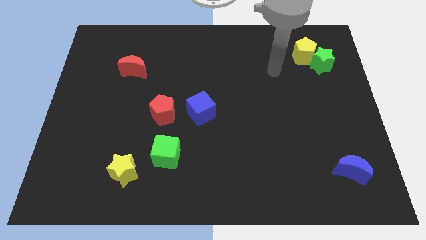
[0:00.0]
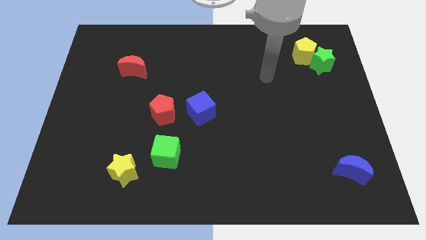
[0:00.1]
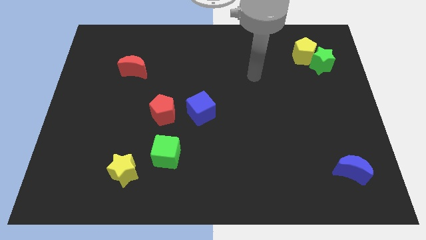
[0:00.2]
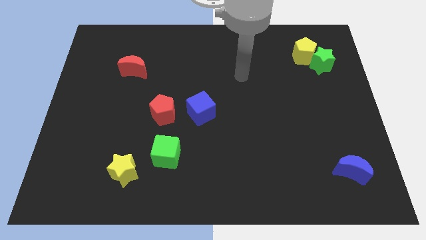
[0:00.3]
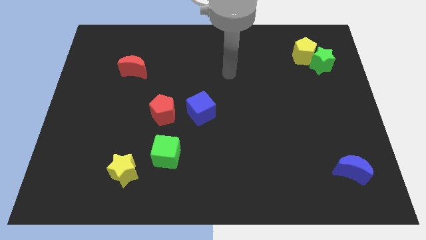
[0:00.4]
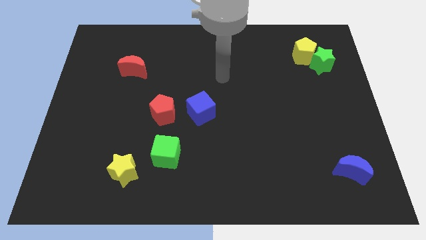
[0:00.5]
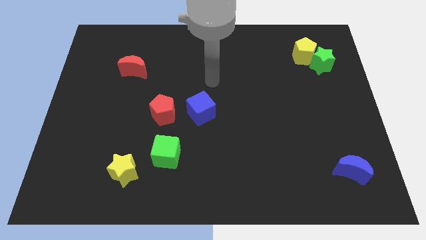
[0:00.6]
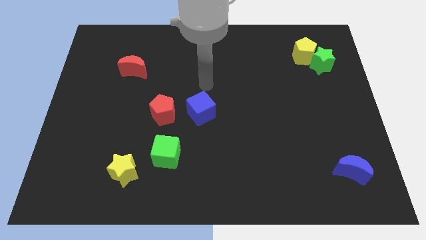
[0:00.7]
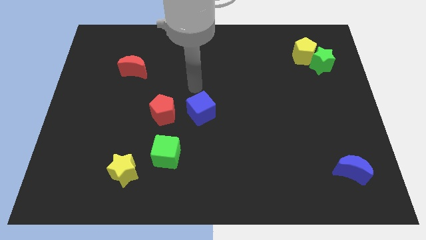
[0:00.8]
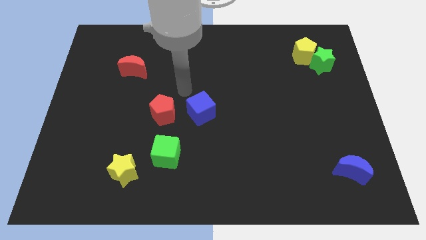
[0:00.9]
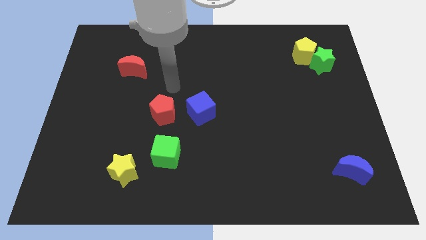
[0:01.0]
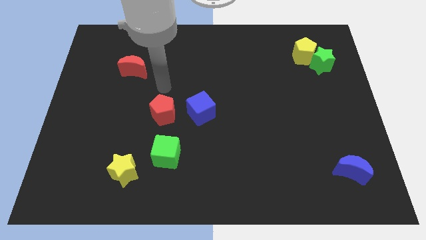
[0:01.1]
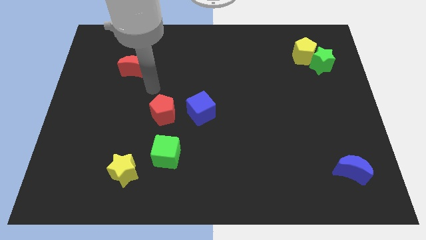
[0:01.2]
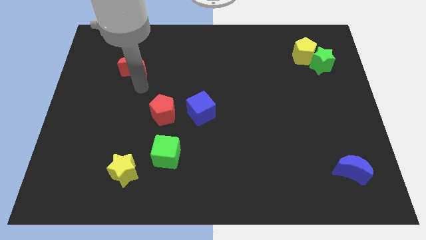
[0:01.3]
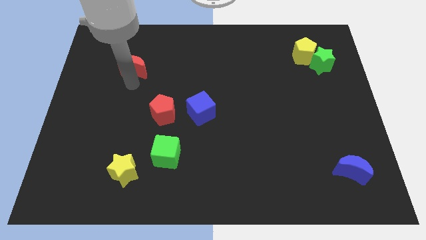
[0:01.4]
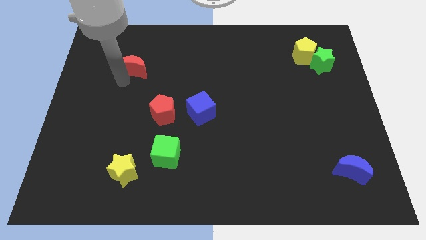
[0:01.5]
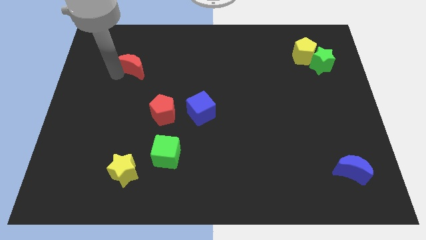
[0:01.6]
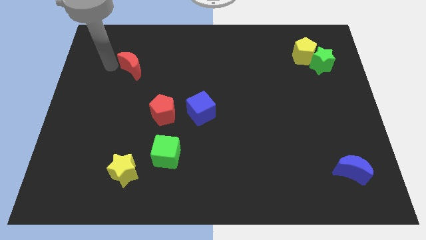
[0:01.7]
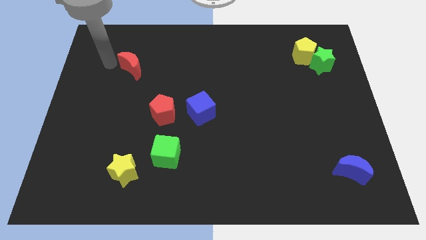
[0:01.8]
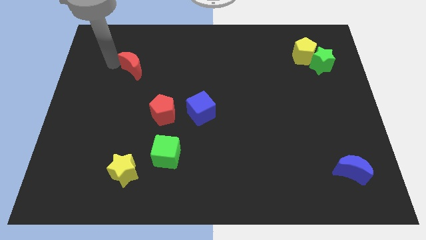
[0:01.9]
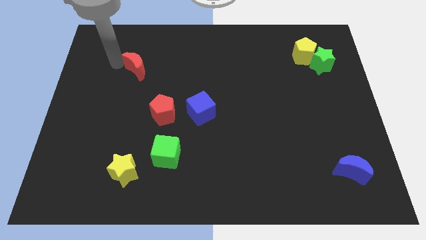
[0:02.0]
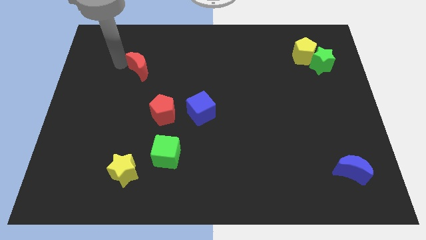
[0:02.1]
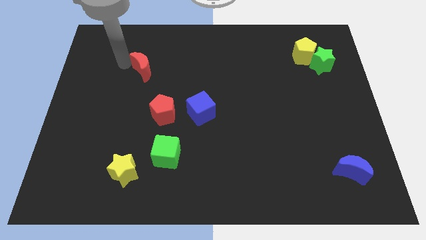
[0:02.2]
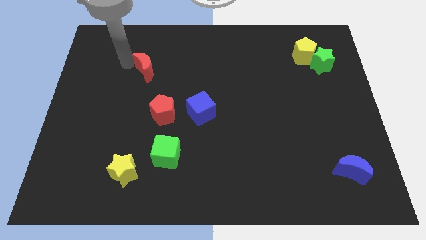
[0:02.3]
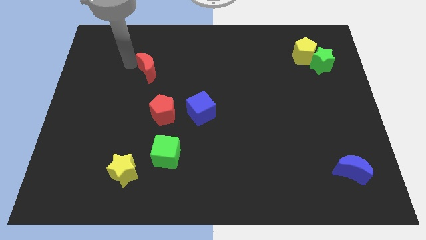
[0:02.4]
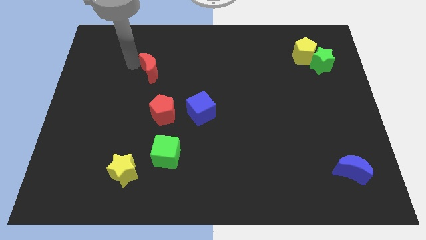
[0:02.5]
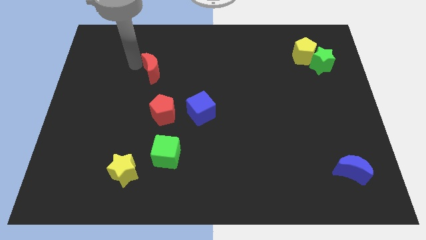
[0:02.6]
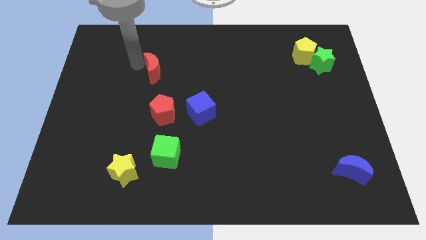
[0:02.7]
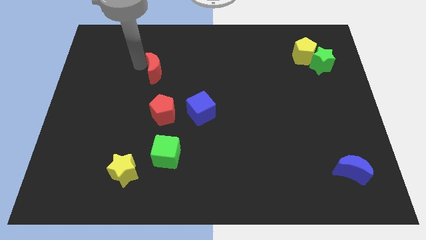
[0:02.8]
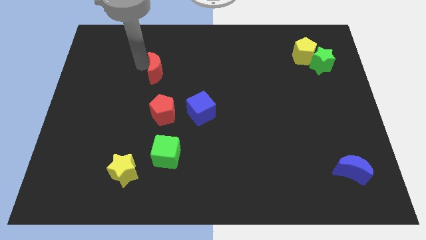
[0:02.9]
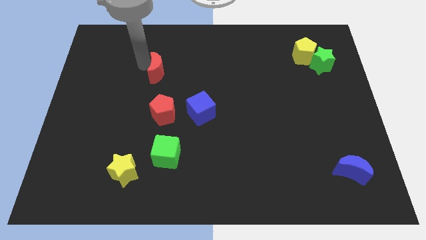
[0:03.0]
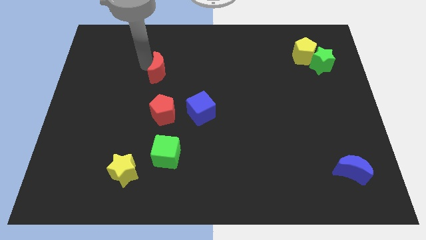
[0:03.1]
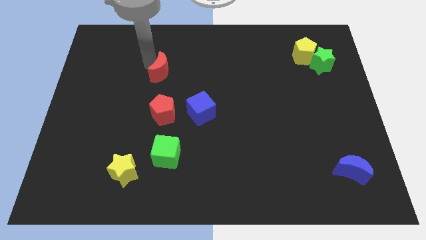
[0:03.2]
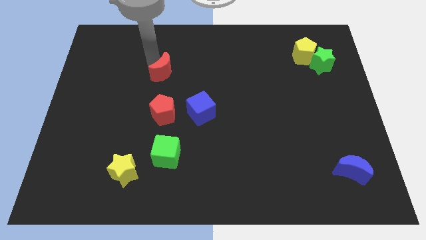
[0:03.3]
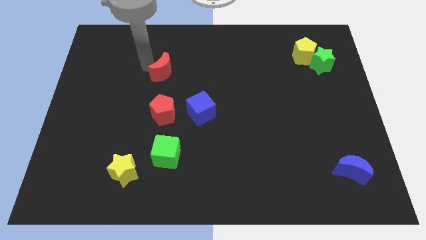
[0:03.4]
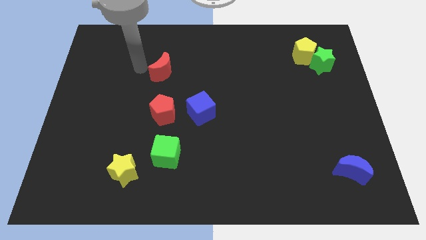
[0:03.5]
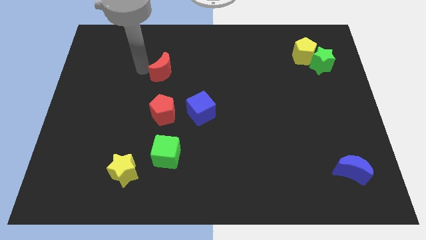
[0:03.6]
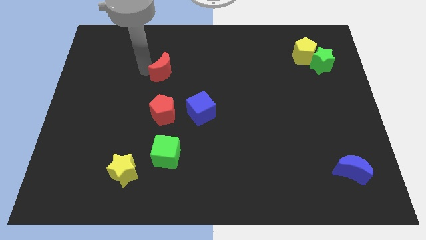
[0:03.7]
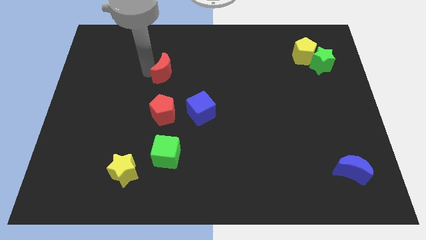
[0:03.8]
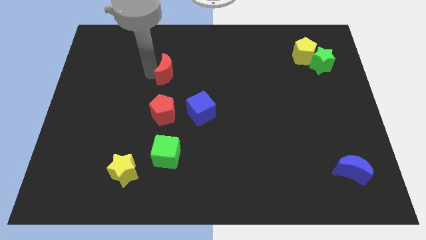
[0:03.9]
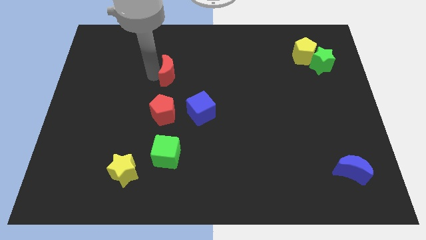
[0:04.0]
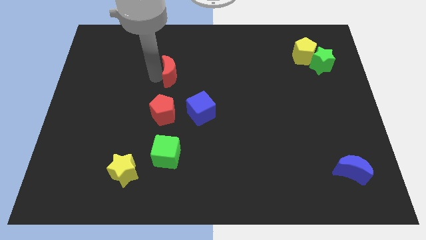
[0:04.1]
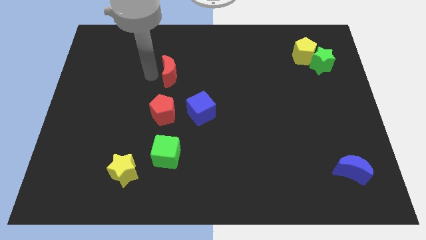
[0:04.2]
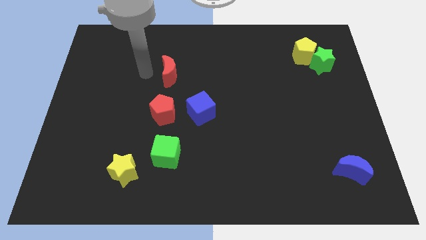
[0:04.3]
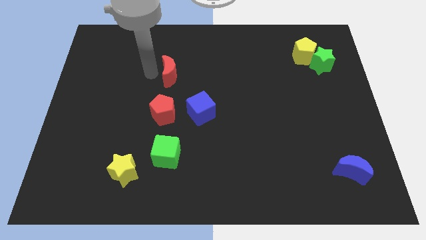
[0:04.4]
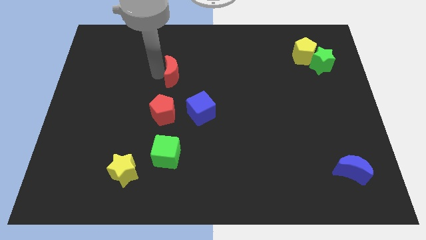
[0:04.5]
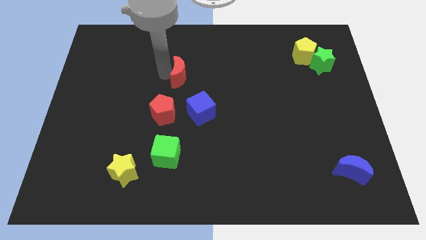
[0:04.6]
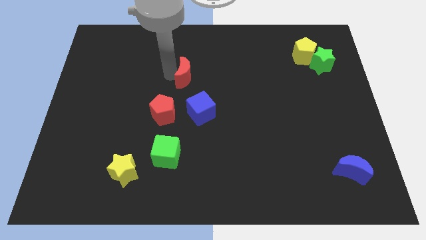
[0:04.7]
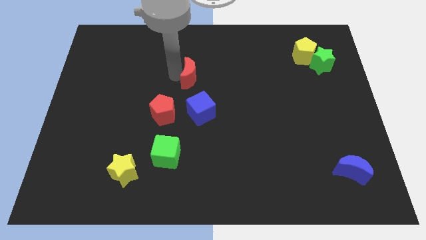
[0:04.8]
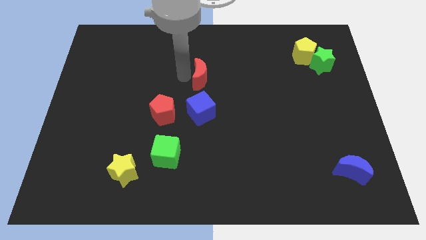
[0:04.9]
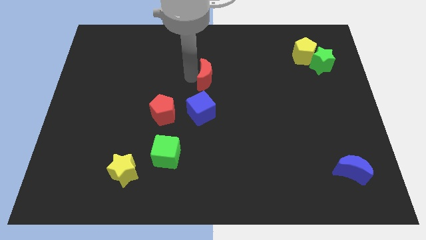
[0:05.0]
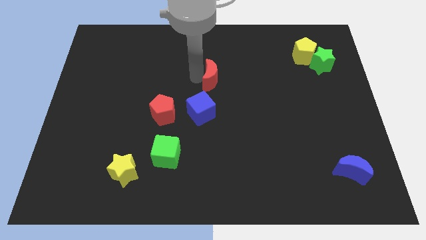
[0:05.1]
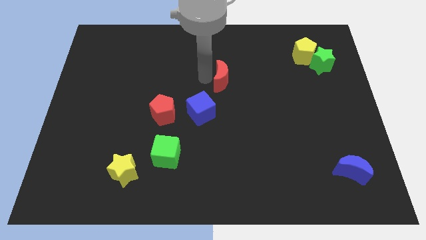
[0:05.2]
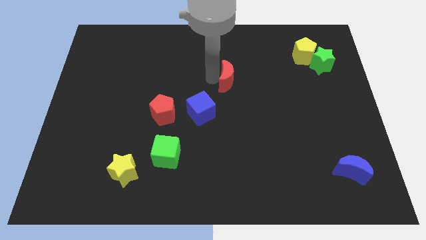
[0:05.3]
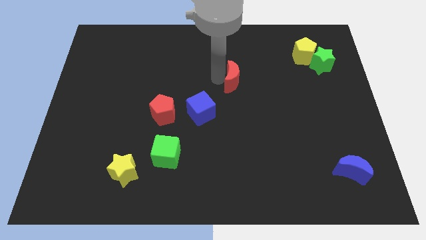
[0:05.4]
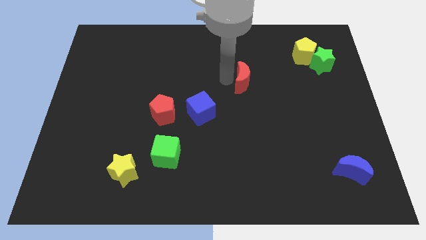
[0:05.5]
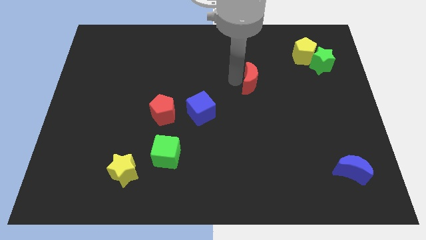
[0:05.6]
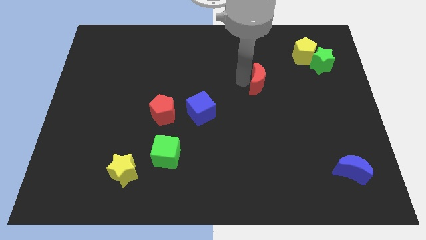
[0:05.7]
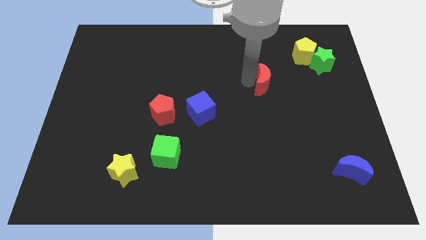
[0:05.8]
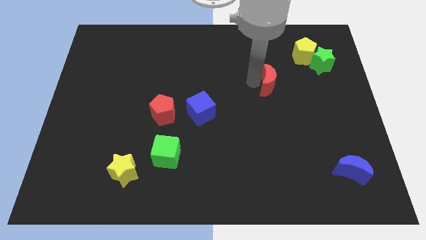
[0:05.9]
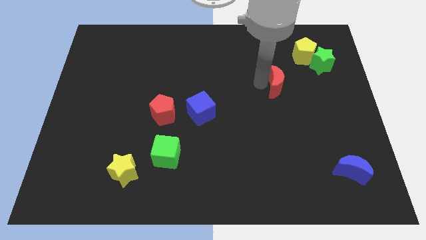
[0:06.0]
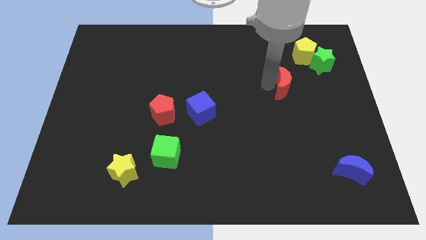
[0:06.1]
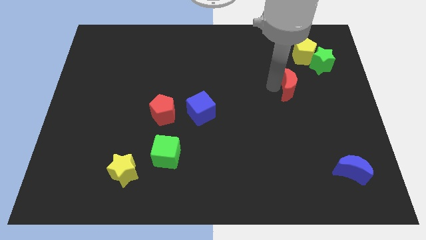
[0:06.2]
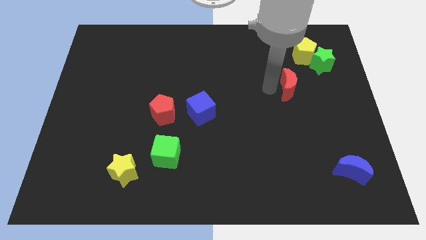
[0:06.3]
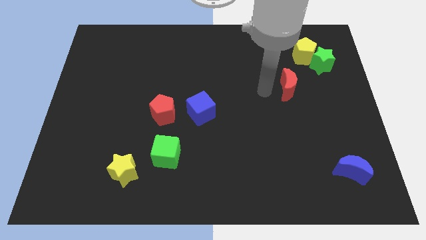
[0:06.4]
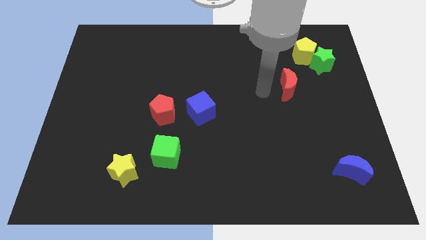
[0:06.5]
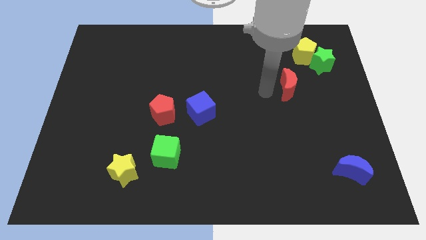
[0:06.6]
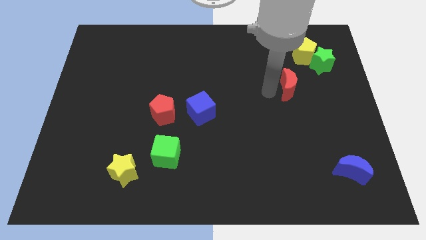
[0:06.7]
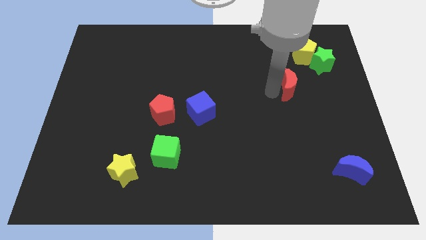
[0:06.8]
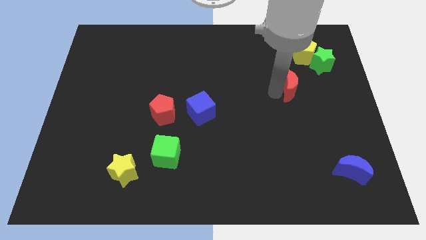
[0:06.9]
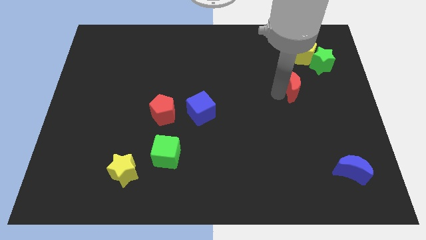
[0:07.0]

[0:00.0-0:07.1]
push the red moon to the bottom side of the yellow pentagon
